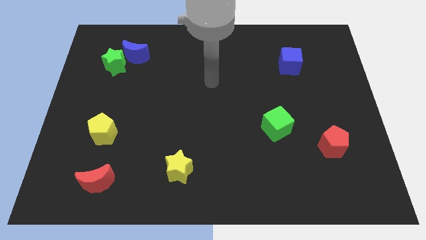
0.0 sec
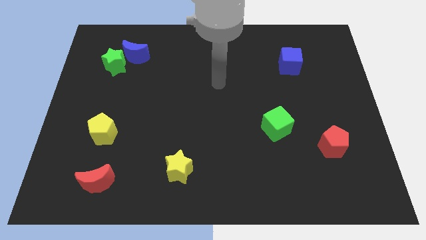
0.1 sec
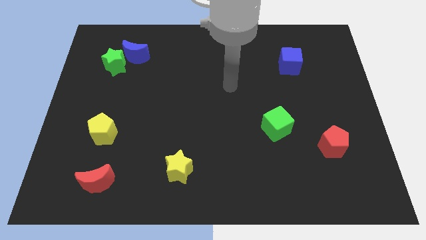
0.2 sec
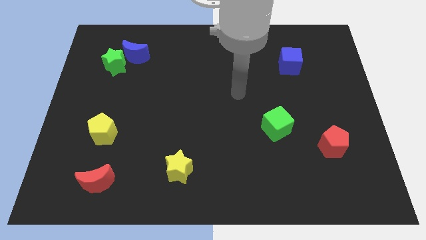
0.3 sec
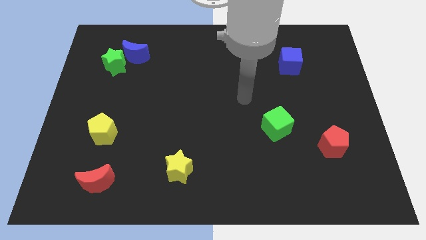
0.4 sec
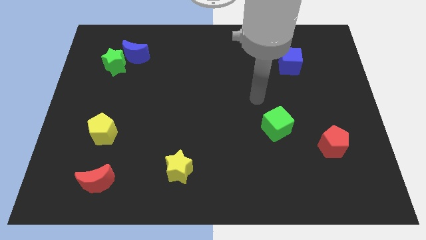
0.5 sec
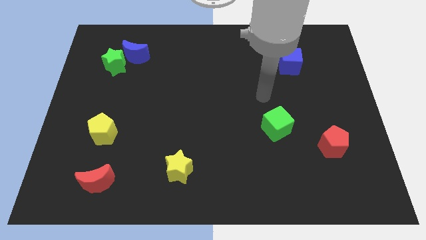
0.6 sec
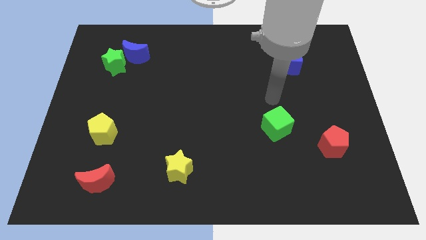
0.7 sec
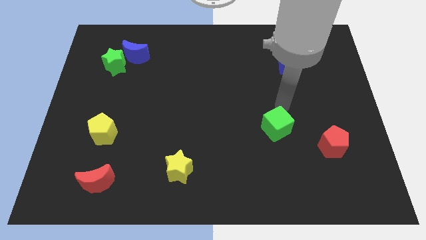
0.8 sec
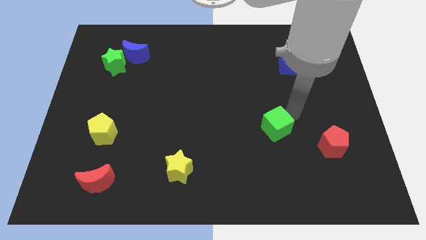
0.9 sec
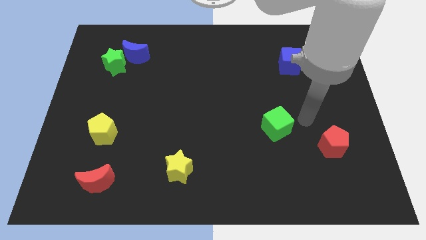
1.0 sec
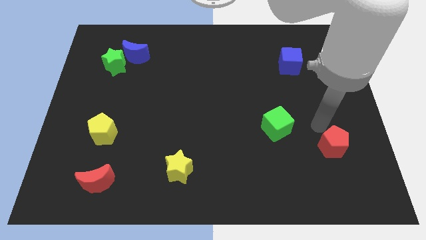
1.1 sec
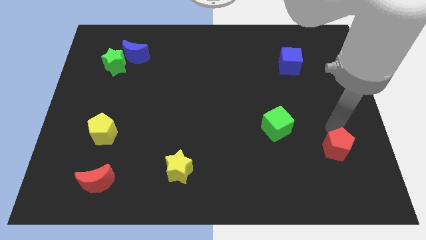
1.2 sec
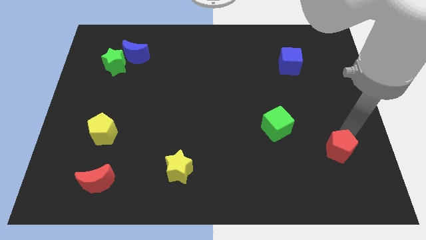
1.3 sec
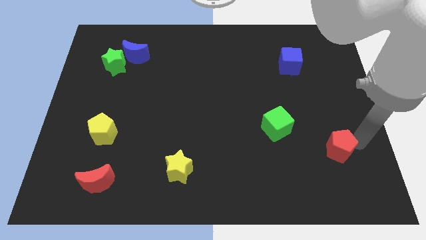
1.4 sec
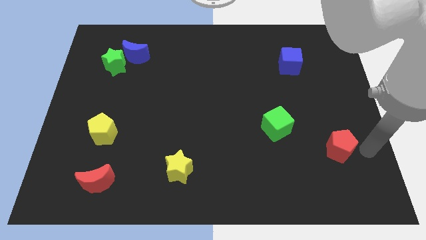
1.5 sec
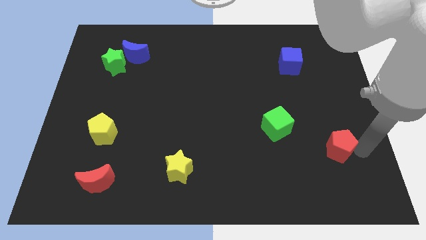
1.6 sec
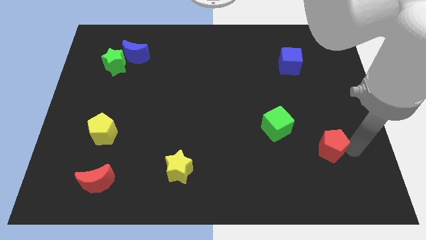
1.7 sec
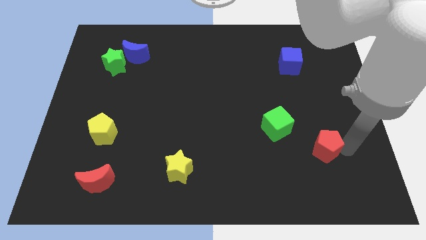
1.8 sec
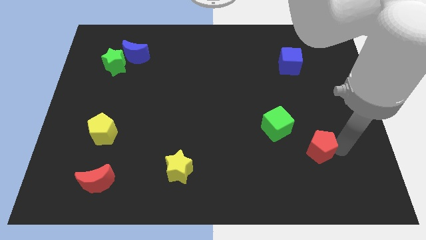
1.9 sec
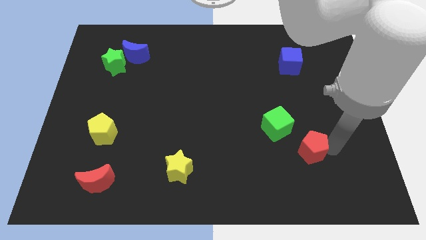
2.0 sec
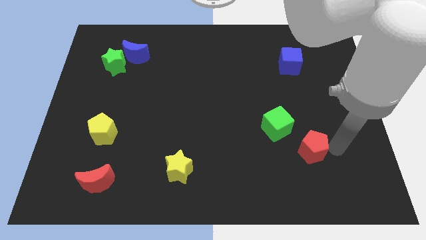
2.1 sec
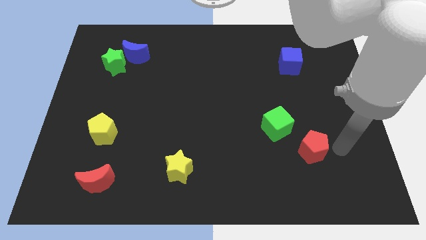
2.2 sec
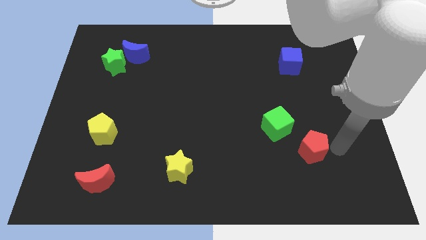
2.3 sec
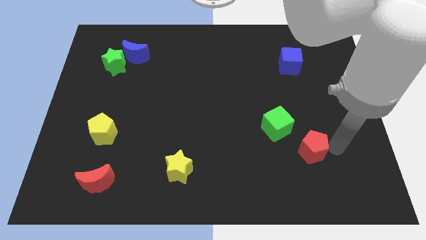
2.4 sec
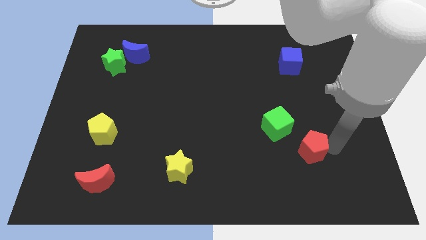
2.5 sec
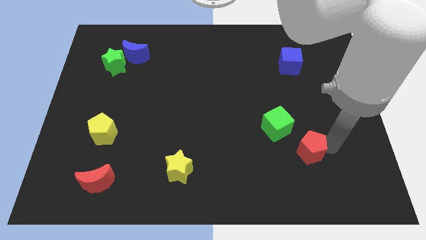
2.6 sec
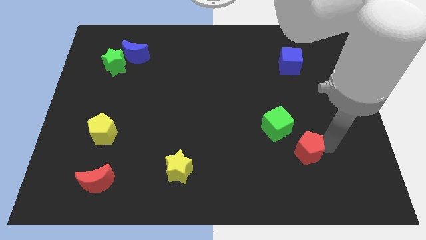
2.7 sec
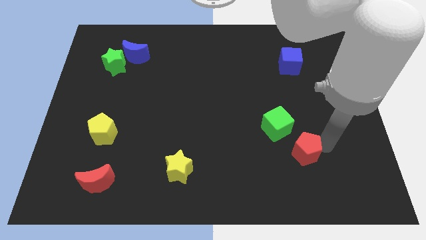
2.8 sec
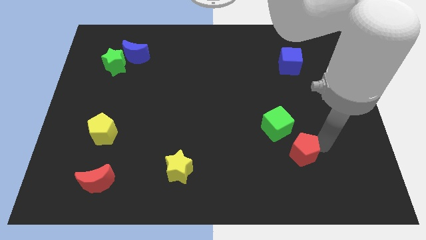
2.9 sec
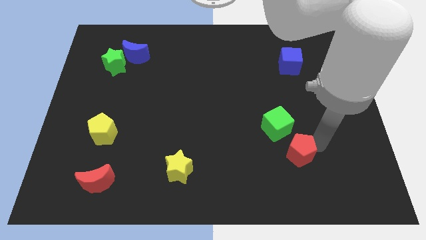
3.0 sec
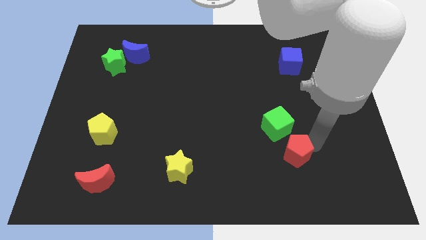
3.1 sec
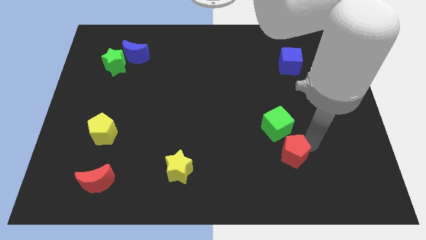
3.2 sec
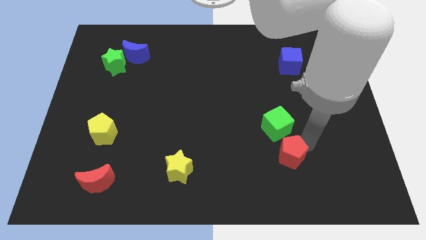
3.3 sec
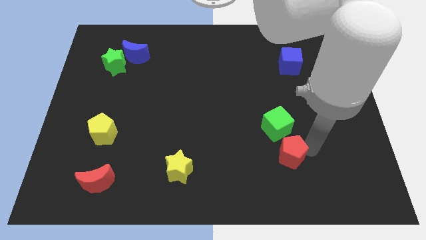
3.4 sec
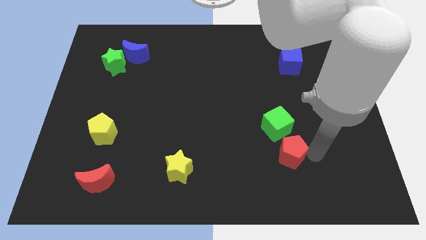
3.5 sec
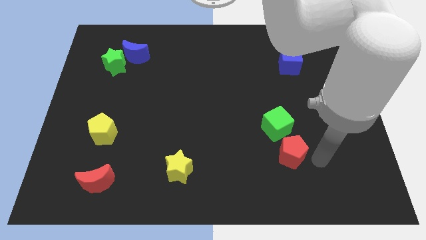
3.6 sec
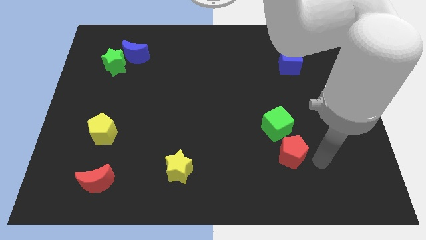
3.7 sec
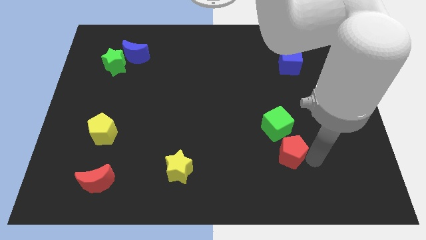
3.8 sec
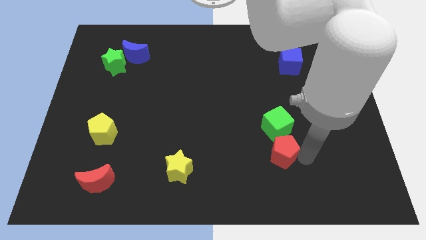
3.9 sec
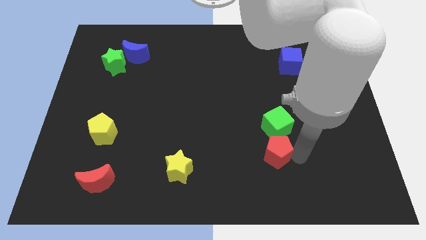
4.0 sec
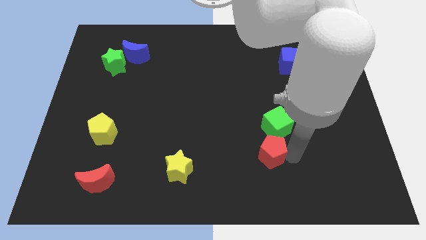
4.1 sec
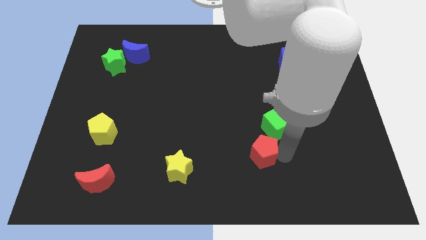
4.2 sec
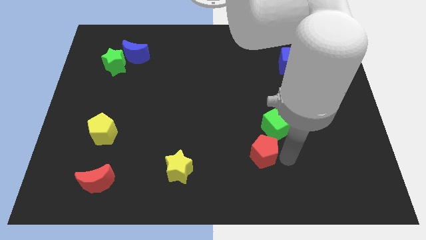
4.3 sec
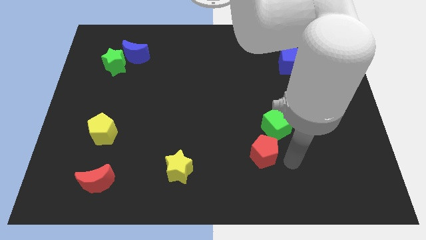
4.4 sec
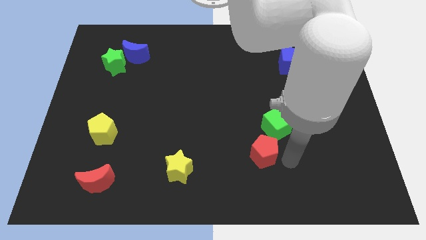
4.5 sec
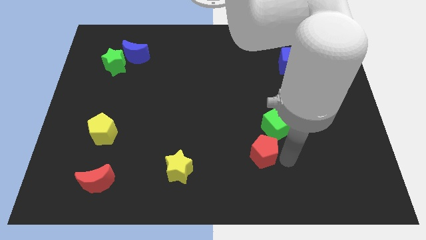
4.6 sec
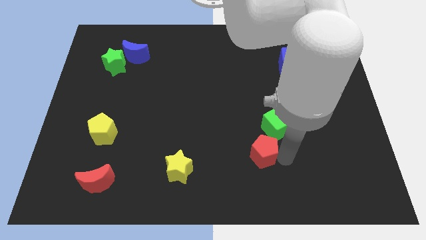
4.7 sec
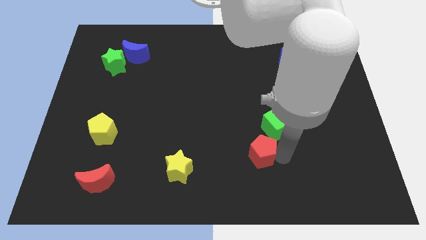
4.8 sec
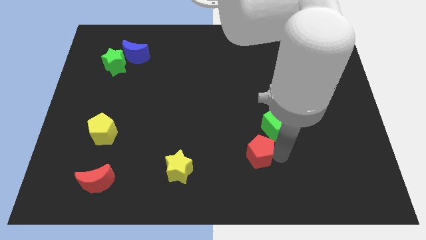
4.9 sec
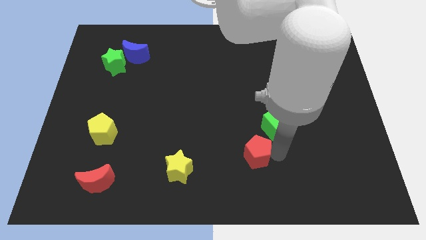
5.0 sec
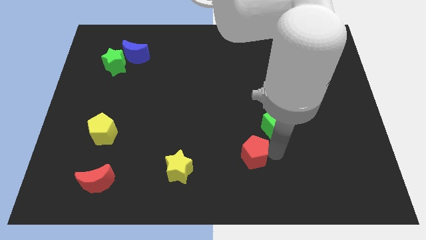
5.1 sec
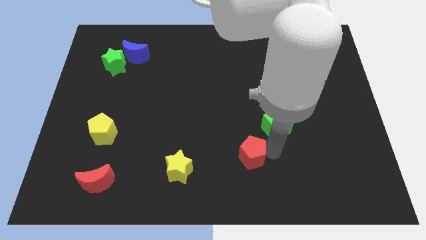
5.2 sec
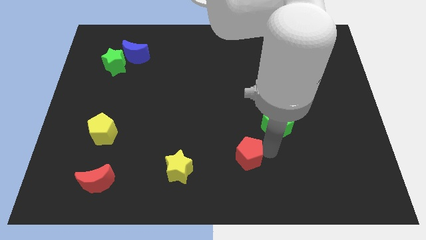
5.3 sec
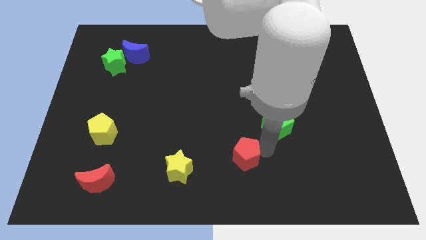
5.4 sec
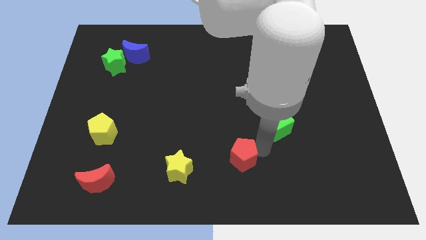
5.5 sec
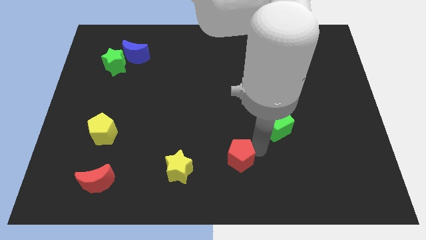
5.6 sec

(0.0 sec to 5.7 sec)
move the red pentagon to the left

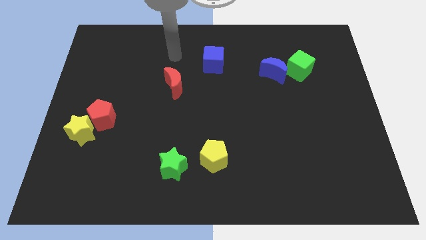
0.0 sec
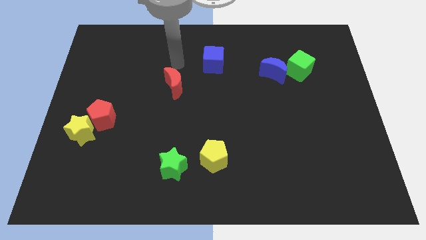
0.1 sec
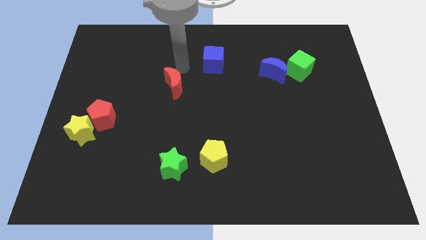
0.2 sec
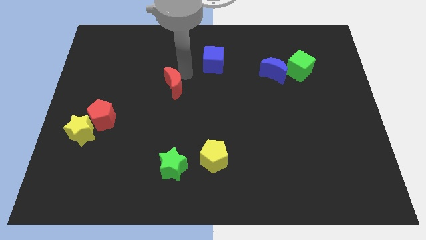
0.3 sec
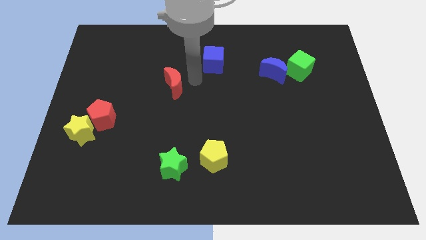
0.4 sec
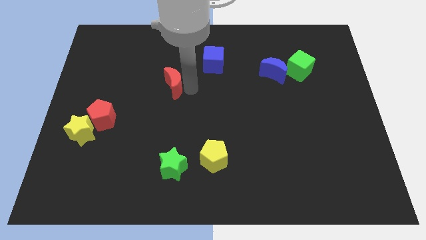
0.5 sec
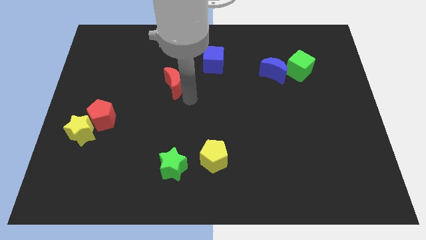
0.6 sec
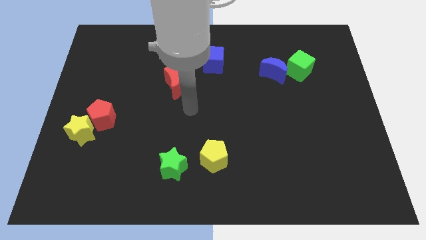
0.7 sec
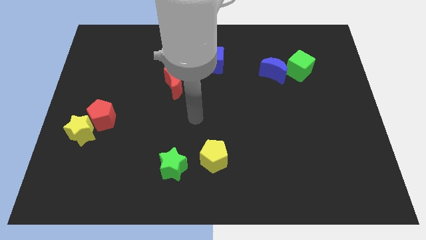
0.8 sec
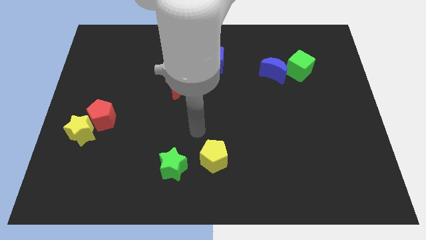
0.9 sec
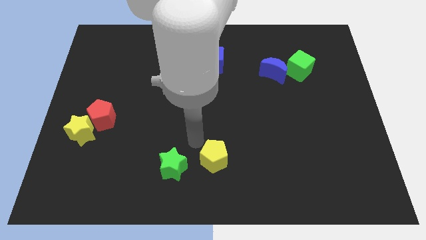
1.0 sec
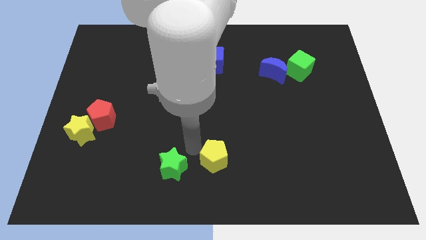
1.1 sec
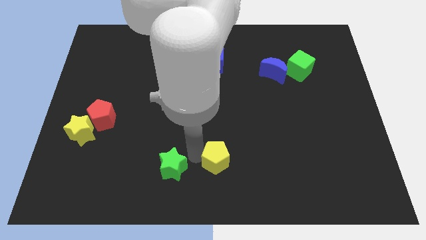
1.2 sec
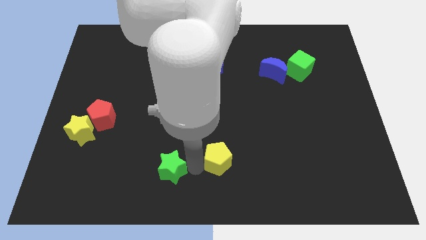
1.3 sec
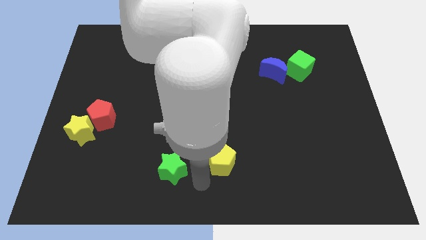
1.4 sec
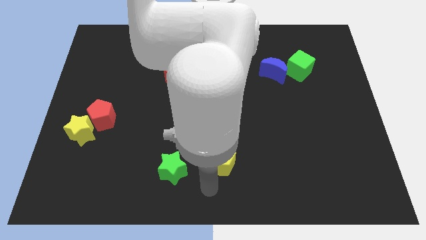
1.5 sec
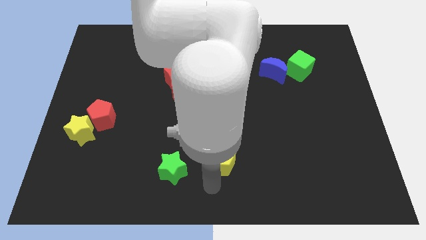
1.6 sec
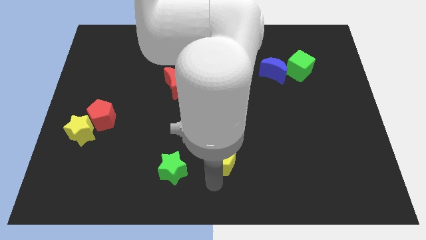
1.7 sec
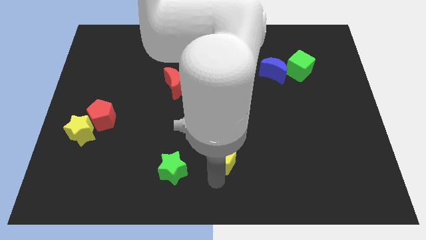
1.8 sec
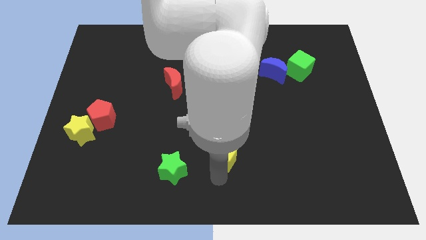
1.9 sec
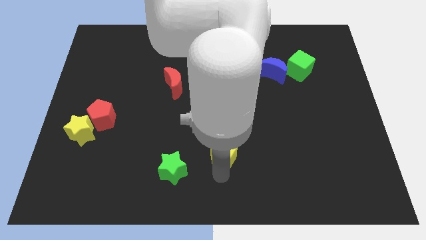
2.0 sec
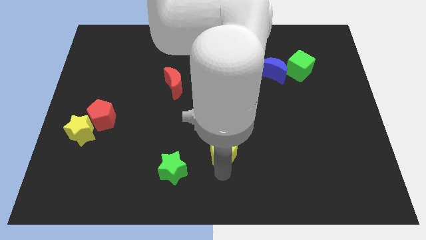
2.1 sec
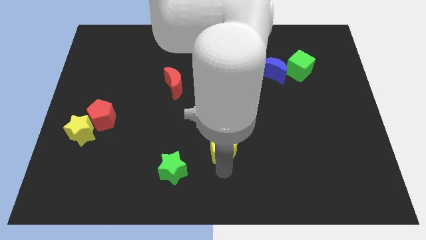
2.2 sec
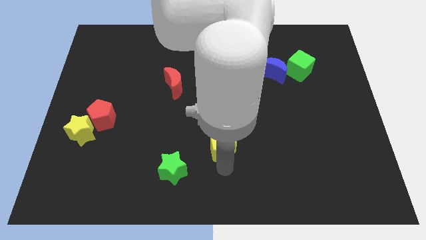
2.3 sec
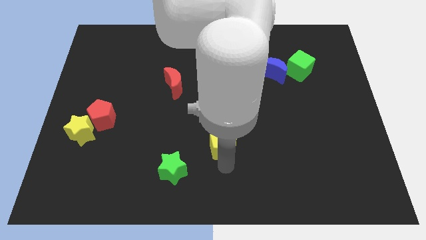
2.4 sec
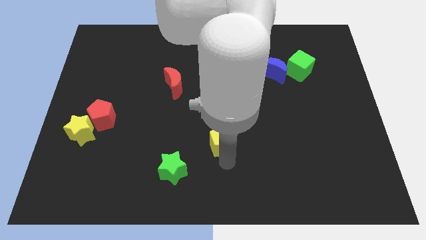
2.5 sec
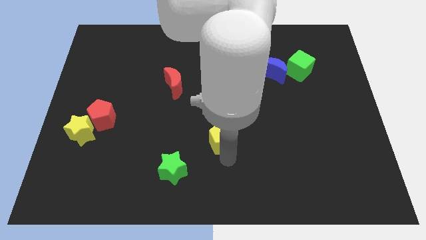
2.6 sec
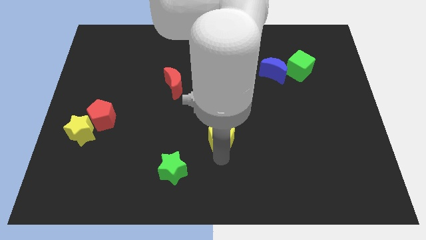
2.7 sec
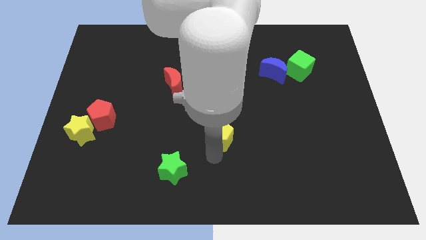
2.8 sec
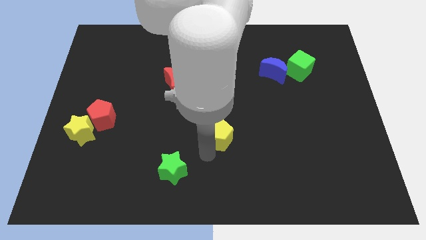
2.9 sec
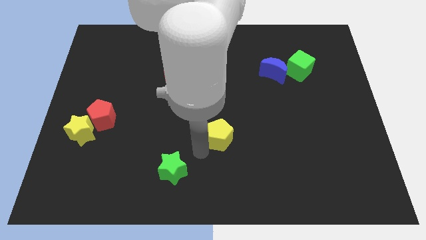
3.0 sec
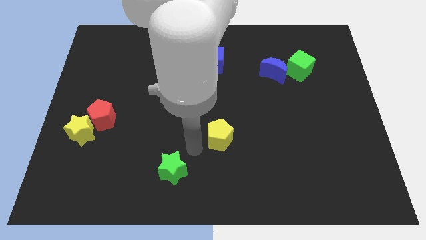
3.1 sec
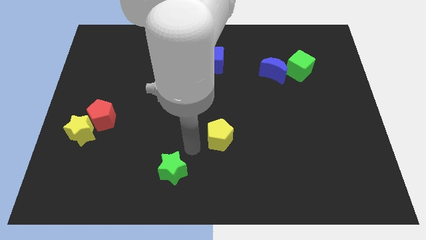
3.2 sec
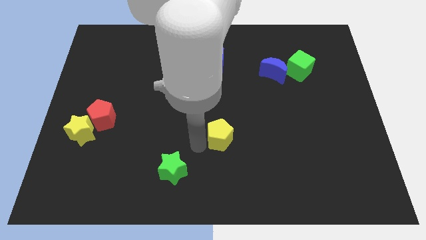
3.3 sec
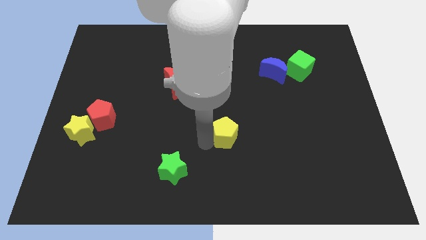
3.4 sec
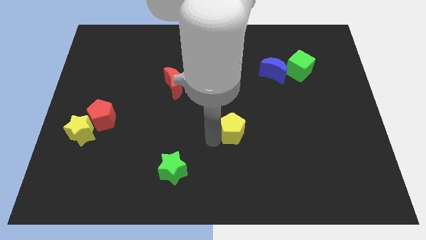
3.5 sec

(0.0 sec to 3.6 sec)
slide the yellow pentagon a bit up and then to the right
